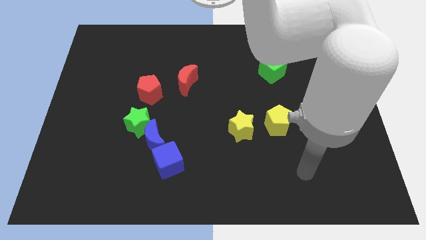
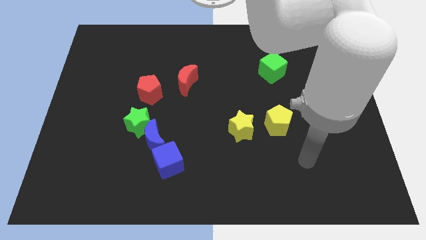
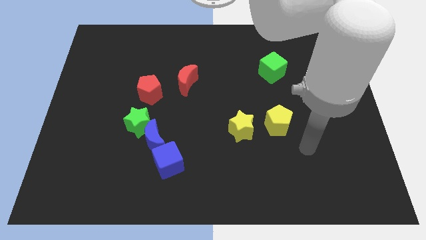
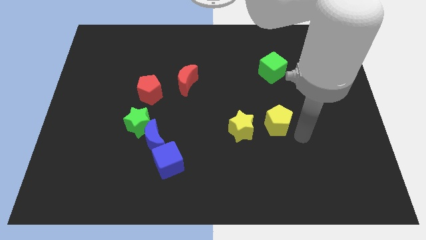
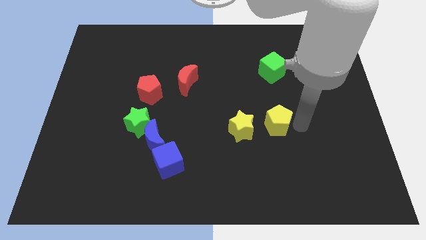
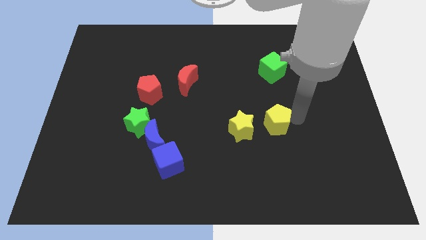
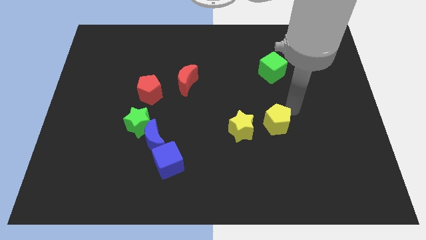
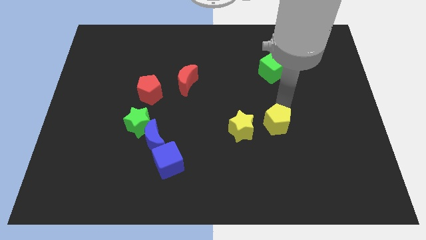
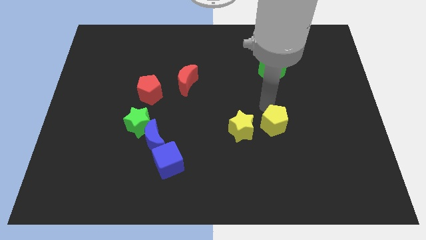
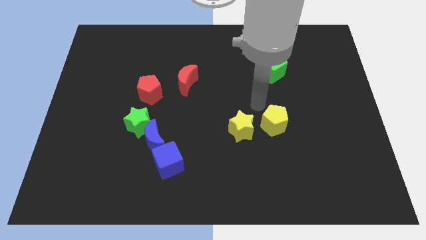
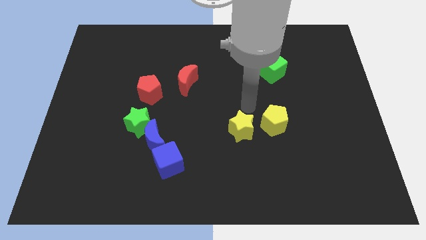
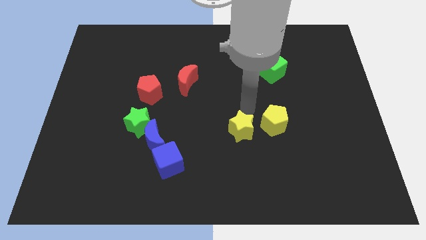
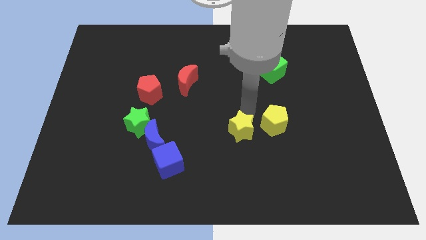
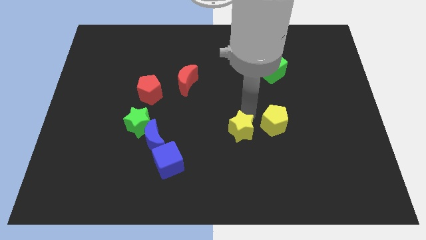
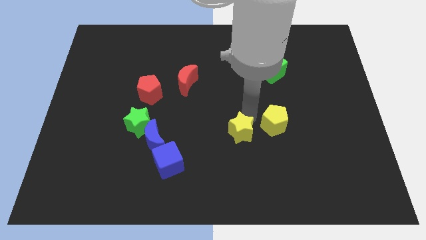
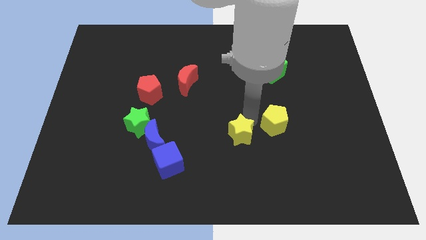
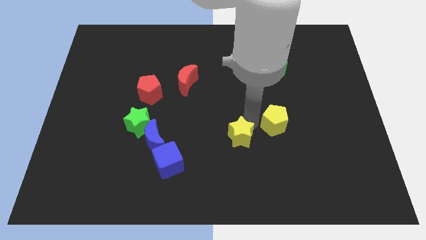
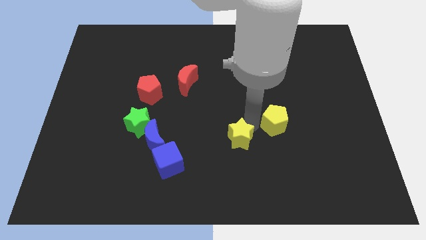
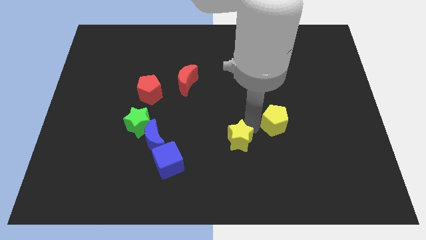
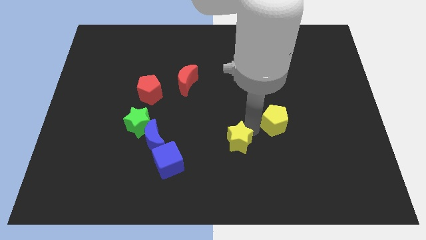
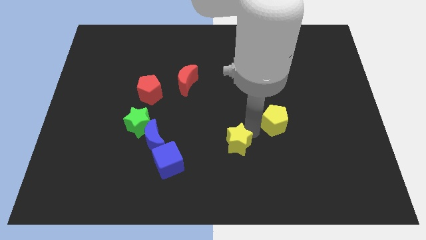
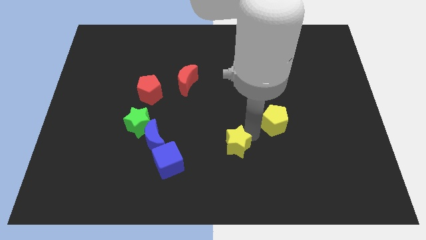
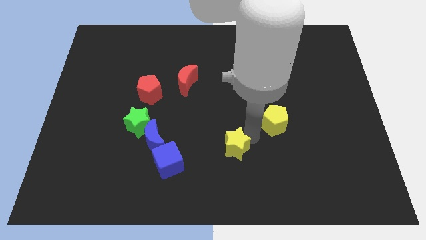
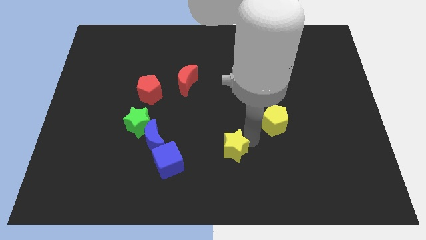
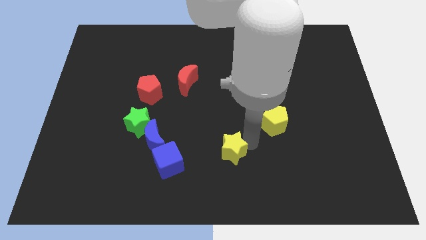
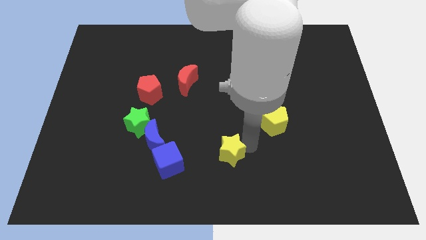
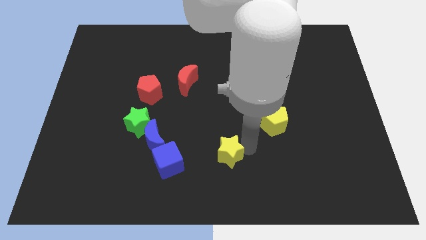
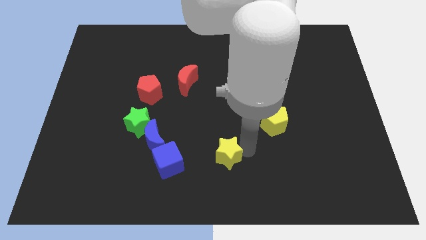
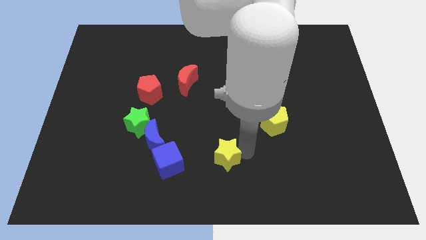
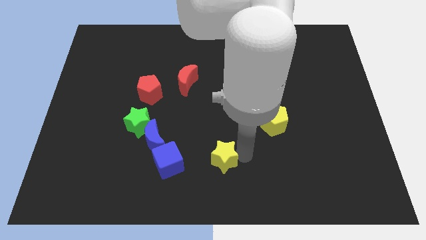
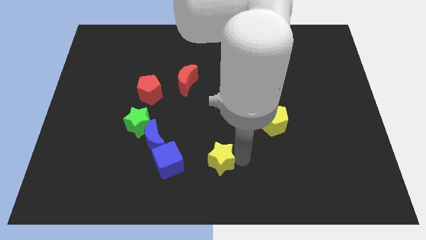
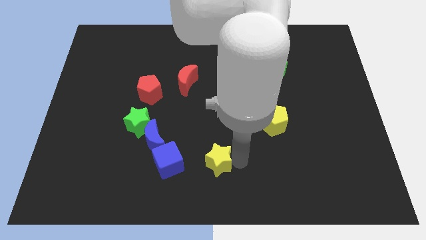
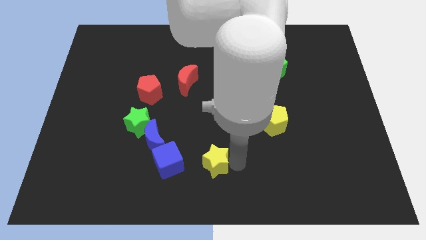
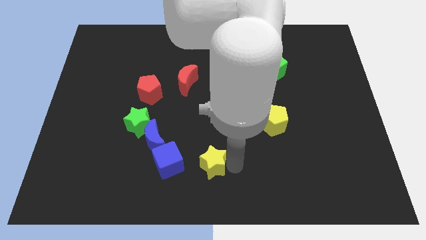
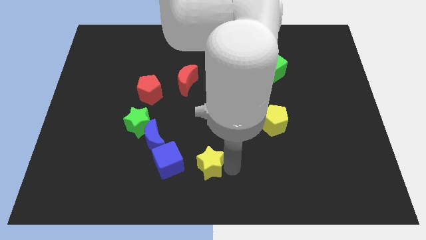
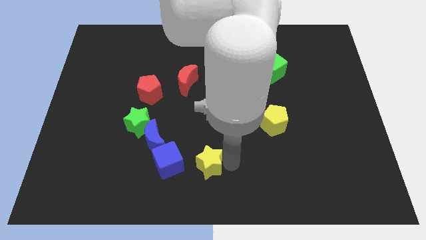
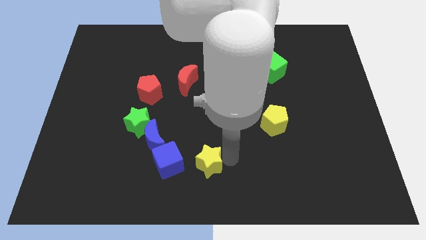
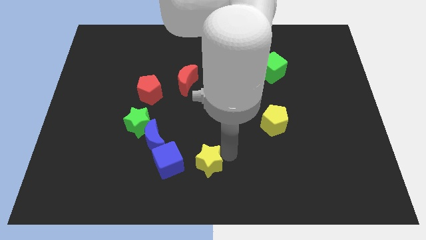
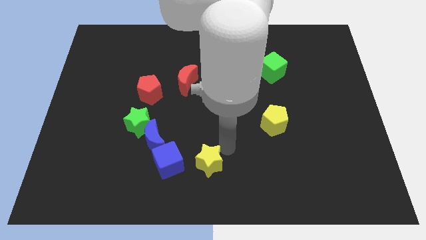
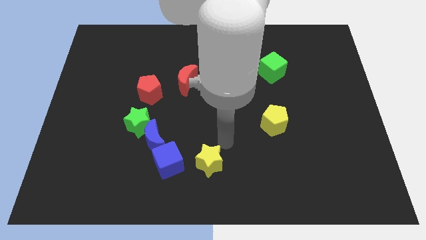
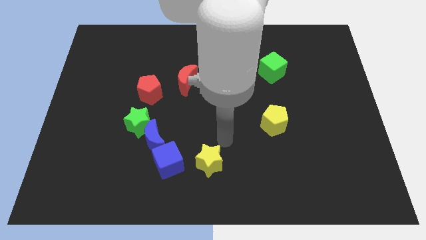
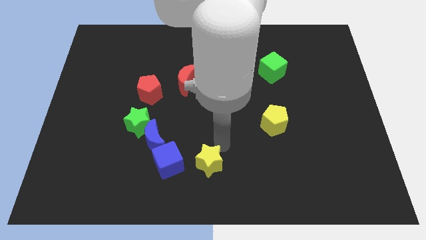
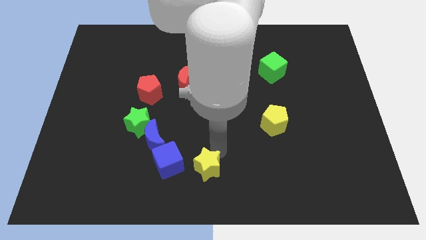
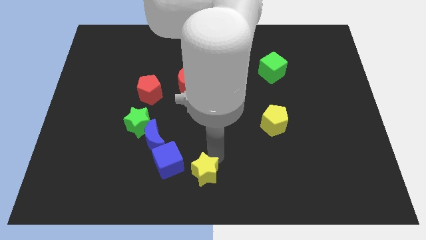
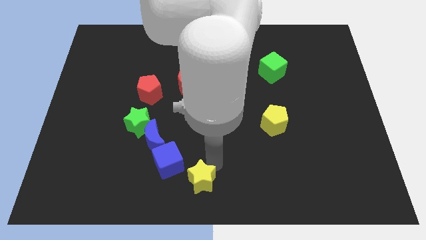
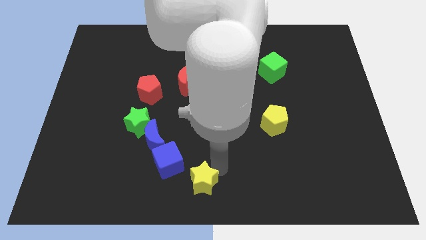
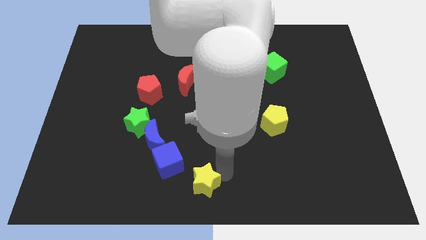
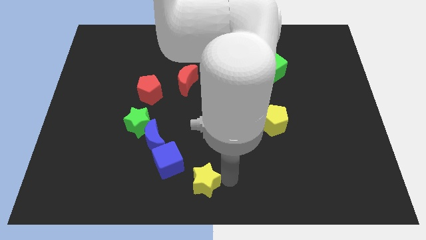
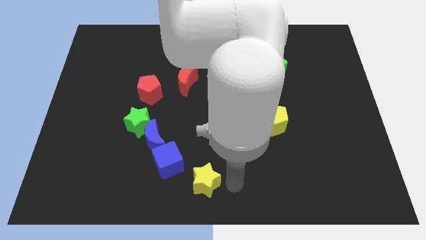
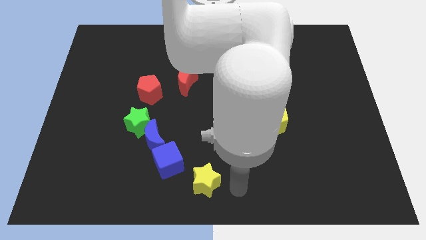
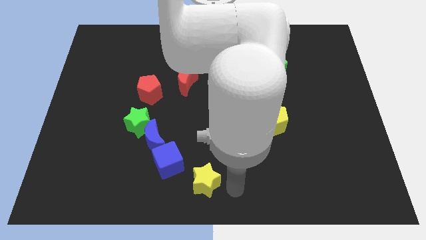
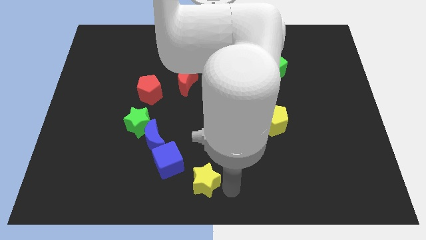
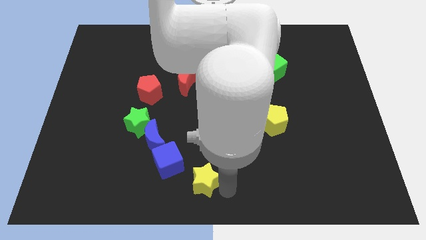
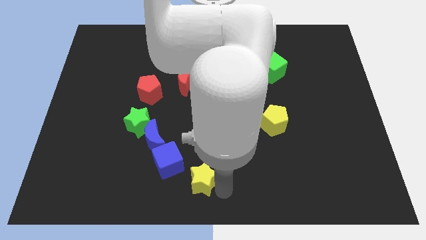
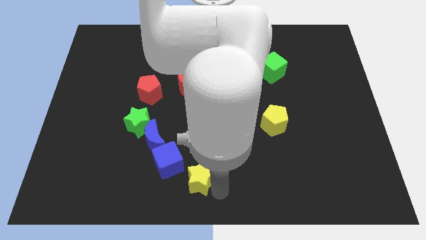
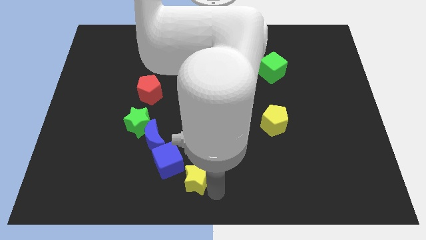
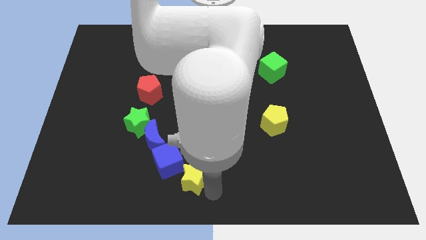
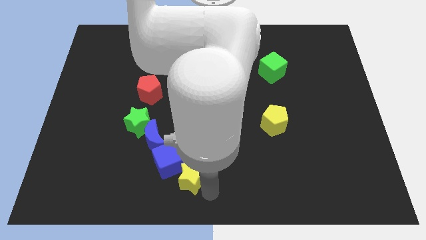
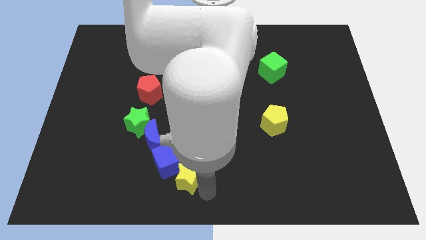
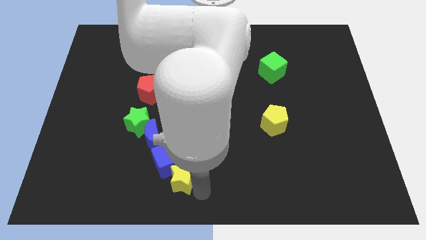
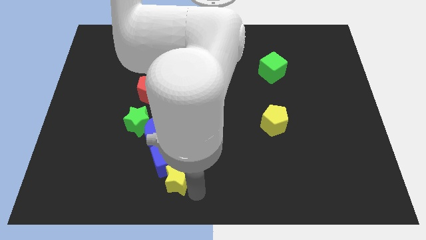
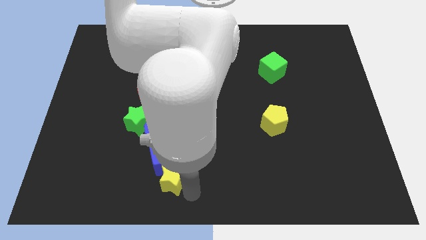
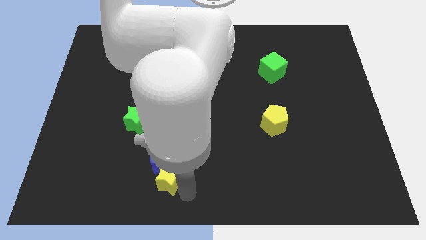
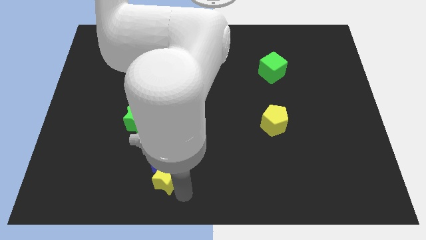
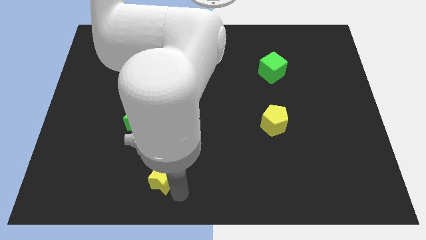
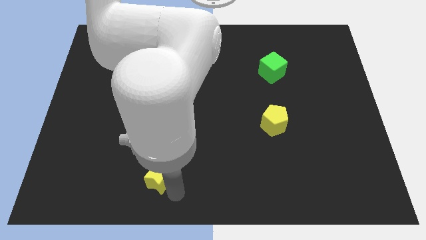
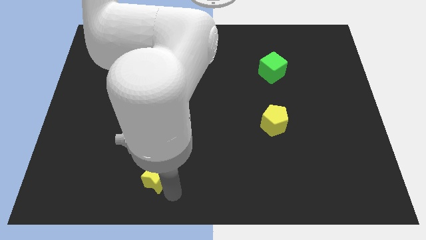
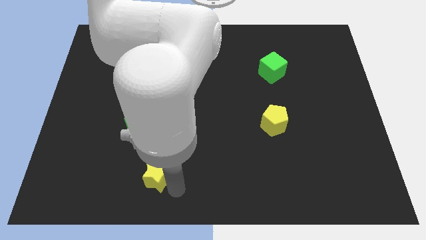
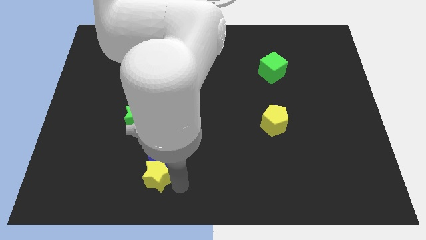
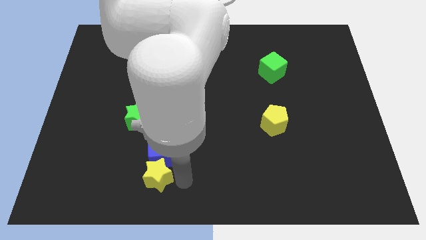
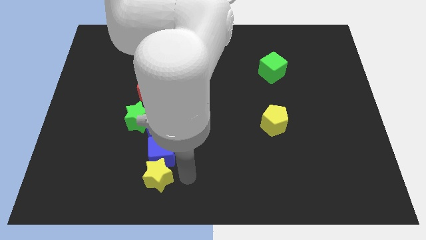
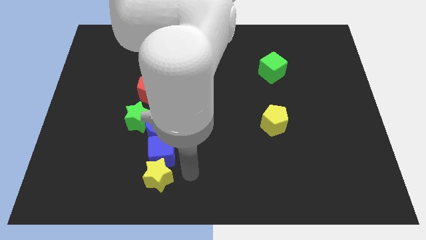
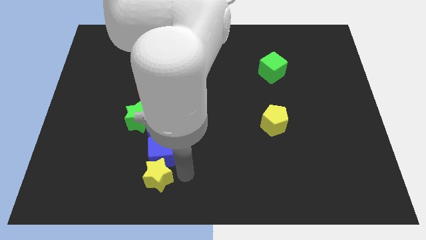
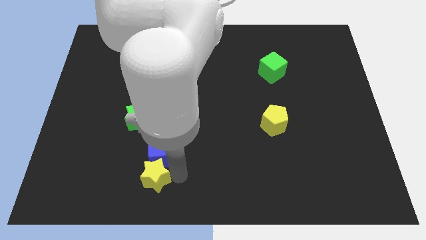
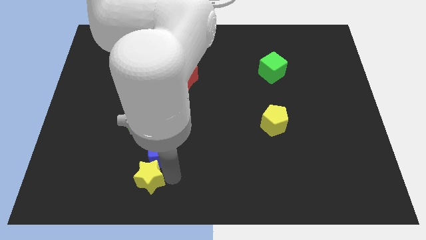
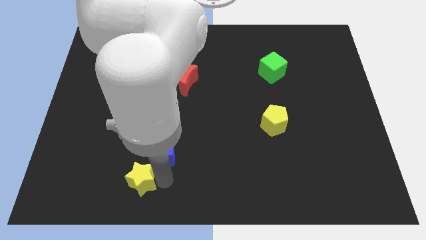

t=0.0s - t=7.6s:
slide the yellow star to the bottom side of the green star
